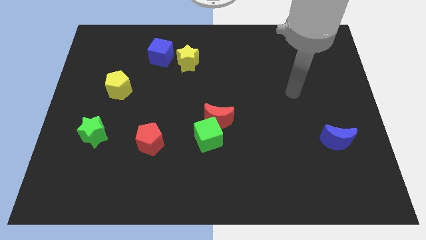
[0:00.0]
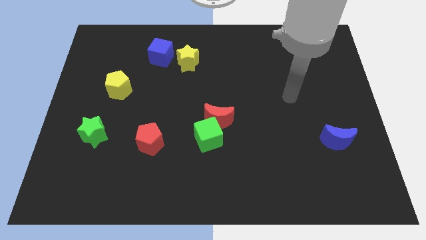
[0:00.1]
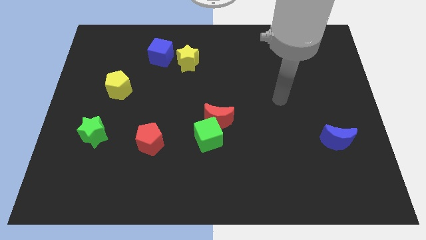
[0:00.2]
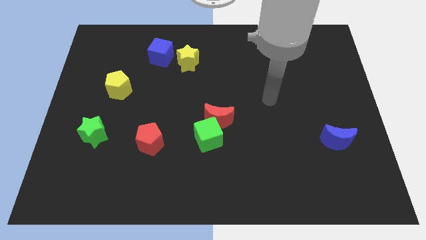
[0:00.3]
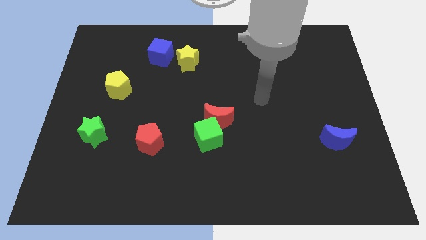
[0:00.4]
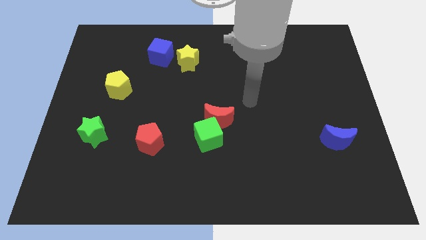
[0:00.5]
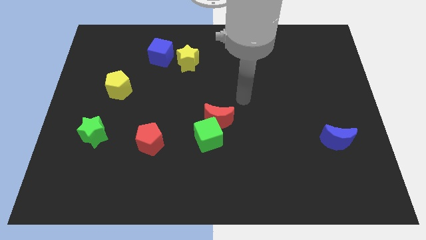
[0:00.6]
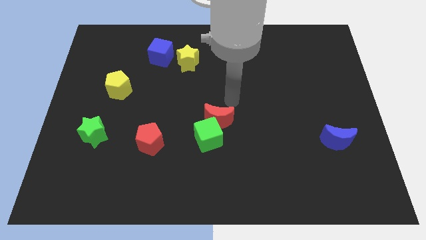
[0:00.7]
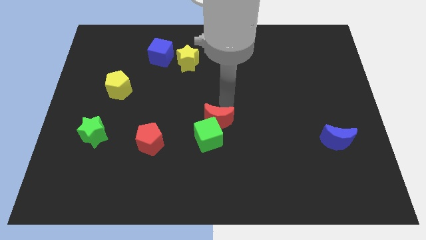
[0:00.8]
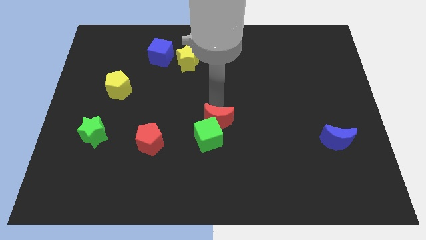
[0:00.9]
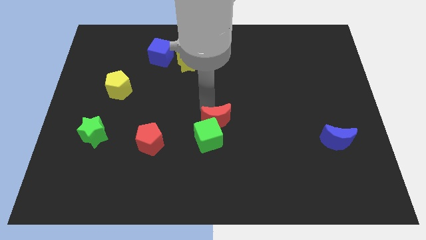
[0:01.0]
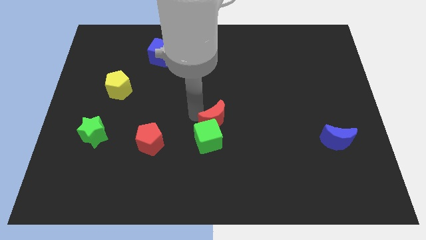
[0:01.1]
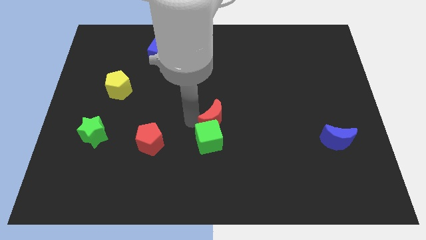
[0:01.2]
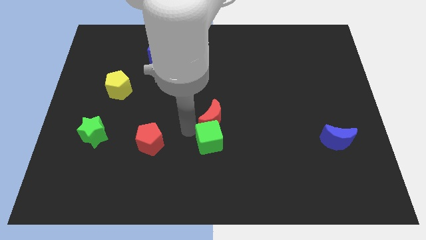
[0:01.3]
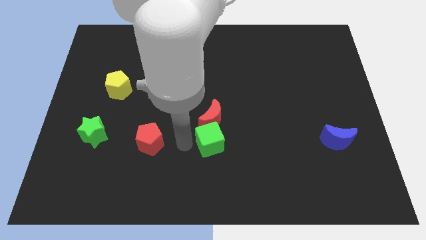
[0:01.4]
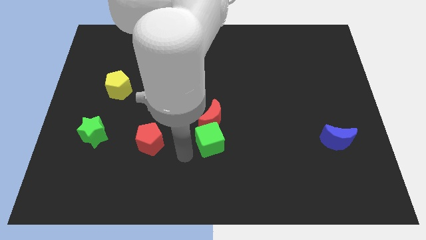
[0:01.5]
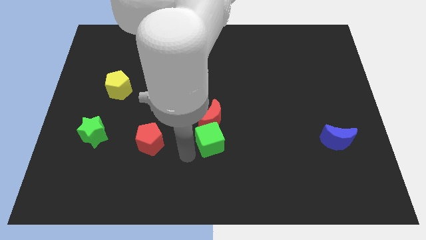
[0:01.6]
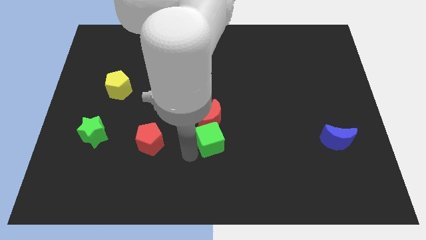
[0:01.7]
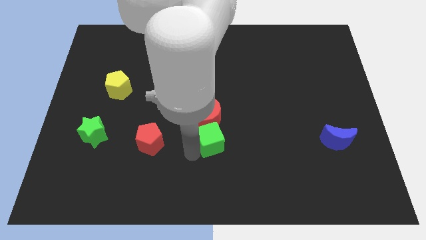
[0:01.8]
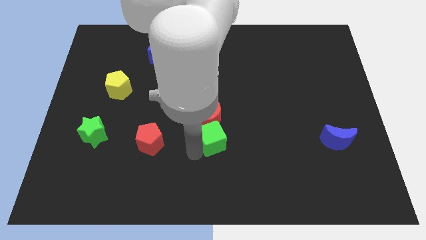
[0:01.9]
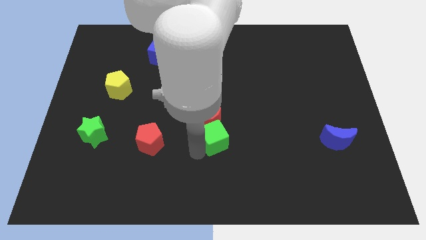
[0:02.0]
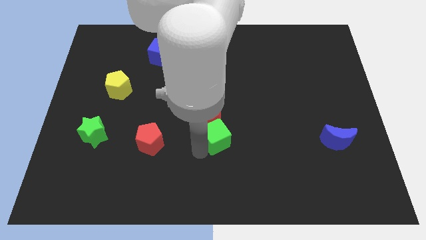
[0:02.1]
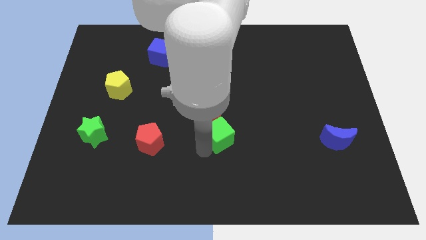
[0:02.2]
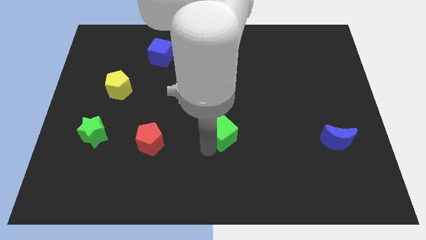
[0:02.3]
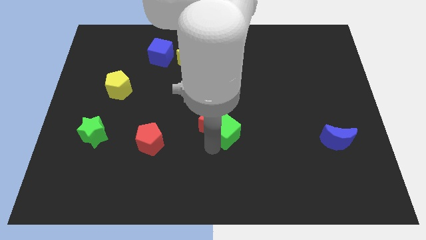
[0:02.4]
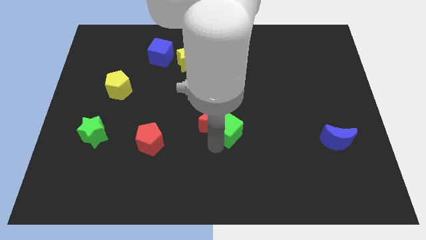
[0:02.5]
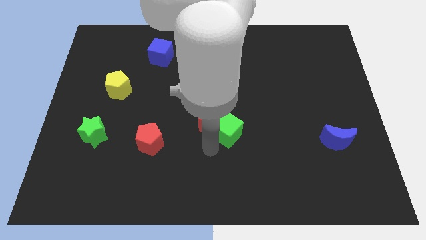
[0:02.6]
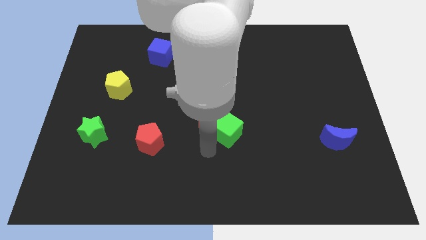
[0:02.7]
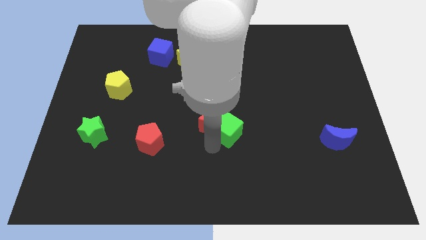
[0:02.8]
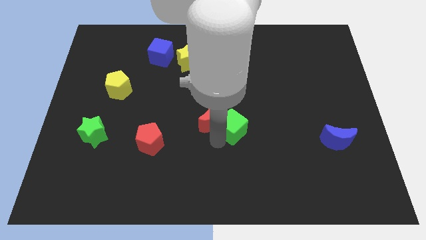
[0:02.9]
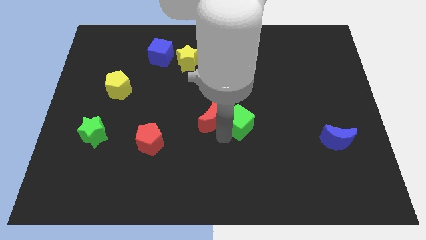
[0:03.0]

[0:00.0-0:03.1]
slide the green cube upwards and then to the right slightly

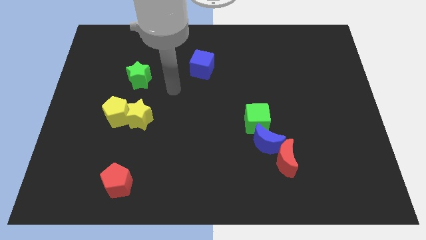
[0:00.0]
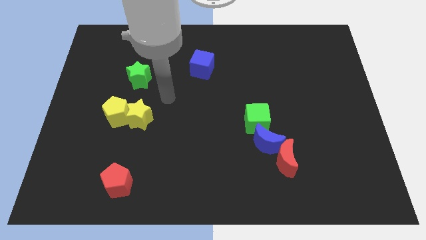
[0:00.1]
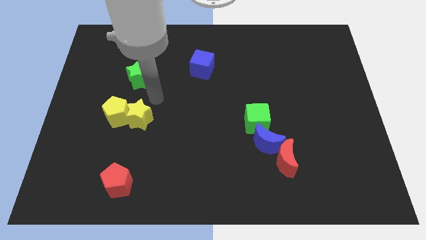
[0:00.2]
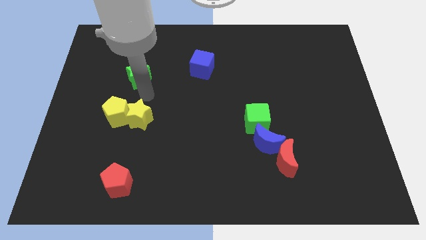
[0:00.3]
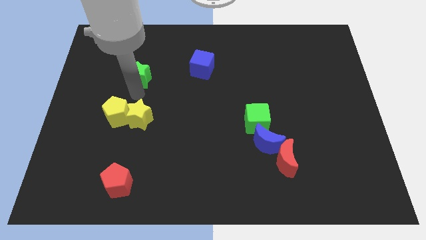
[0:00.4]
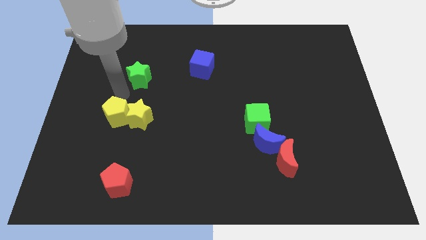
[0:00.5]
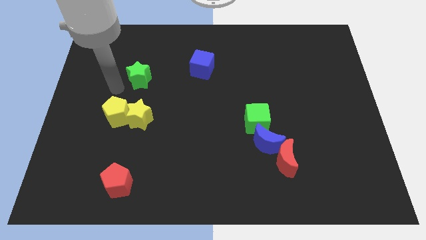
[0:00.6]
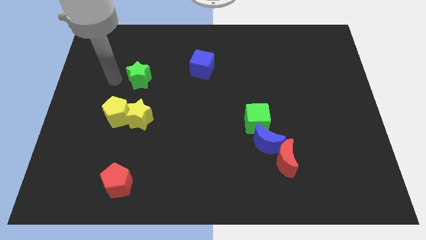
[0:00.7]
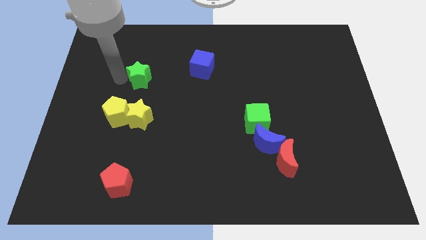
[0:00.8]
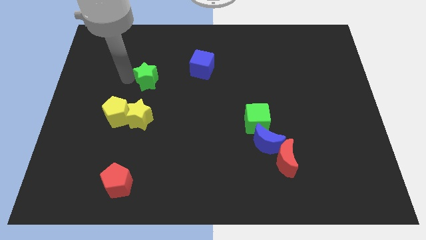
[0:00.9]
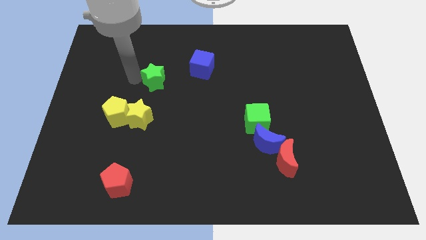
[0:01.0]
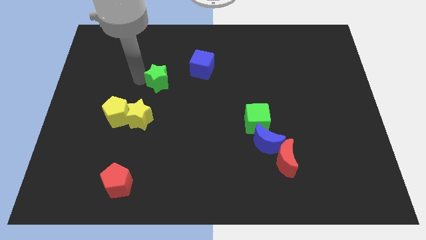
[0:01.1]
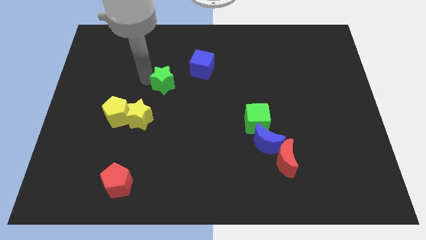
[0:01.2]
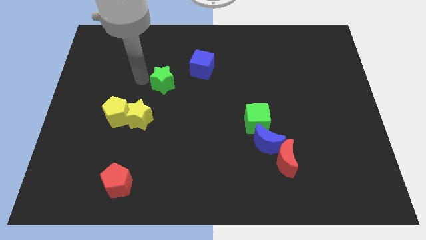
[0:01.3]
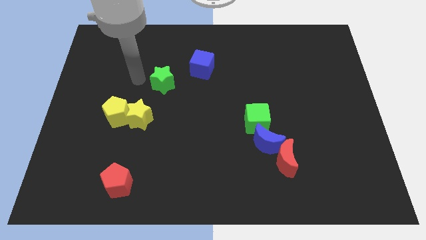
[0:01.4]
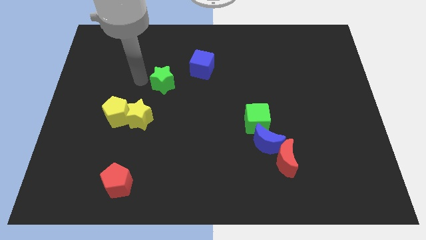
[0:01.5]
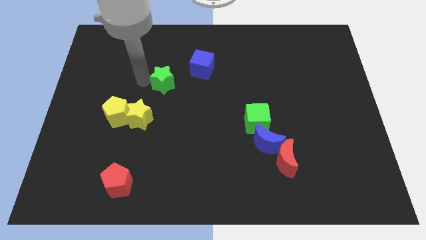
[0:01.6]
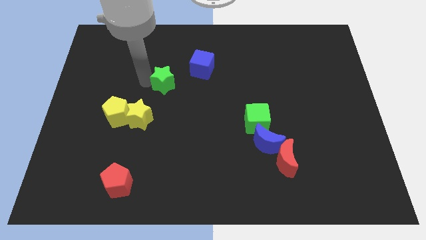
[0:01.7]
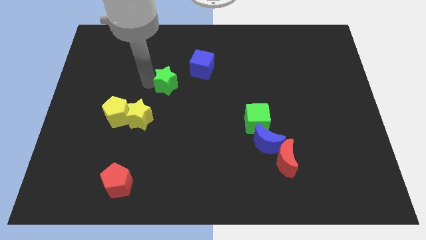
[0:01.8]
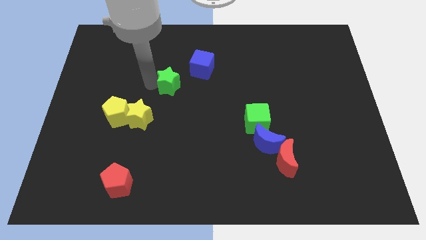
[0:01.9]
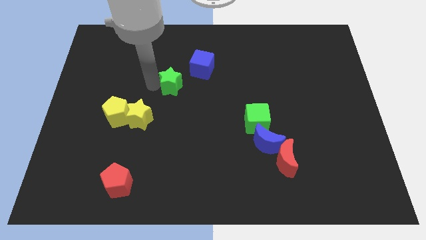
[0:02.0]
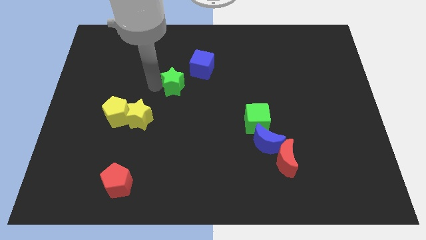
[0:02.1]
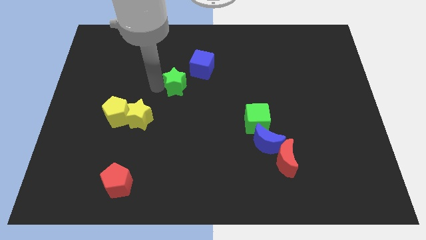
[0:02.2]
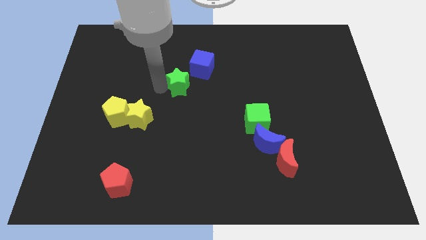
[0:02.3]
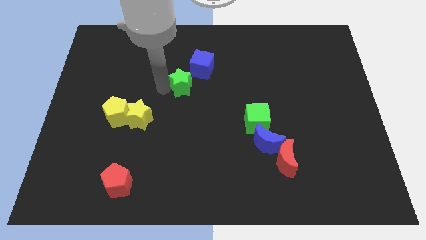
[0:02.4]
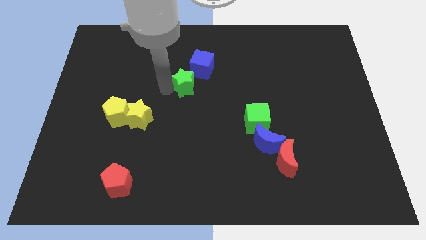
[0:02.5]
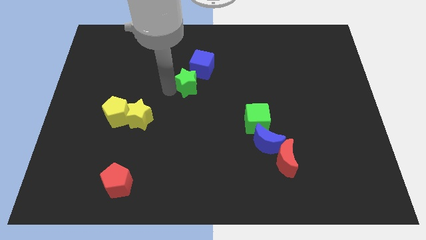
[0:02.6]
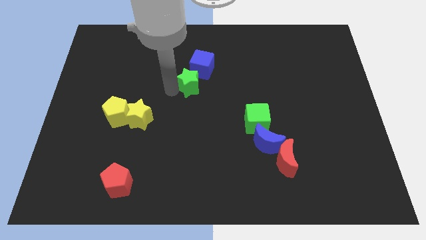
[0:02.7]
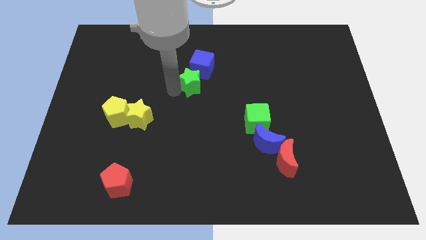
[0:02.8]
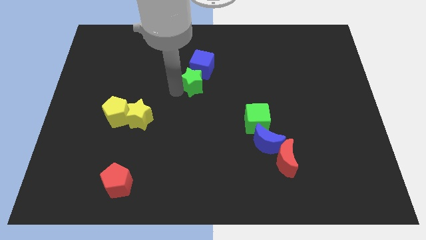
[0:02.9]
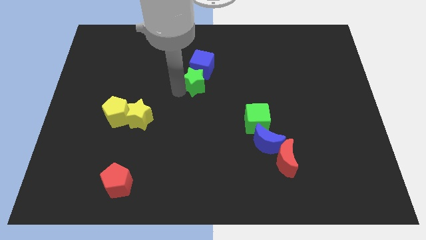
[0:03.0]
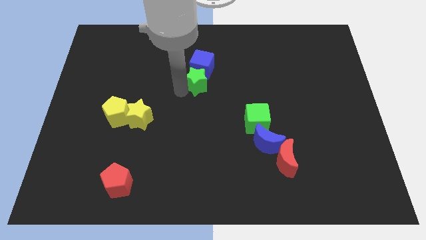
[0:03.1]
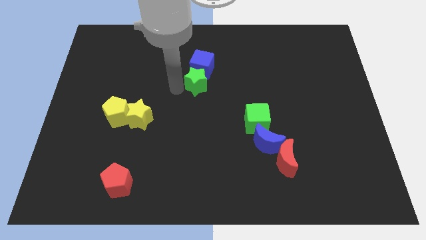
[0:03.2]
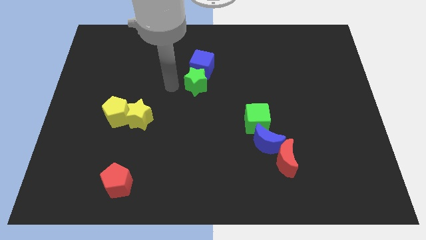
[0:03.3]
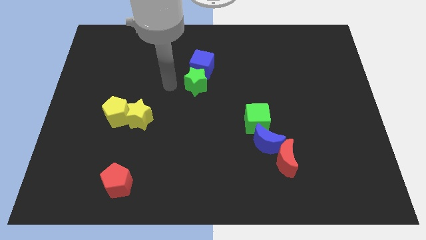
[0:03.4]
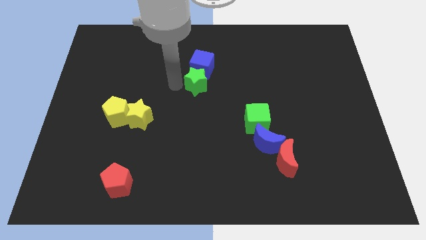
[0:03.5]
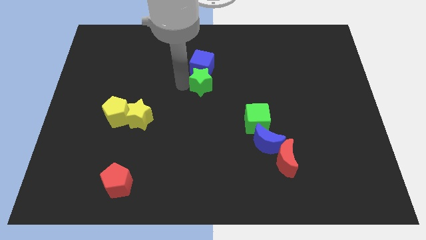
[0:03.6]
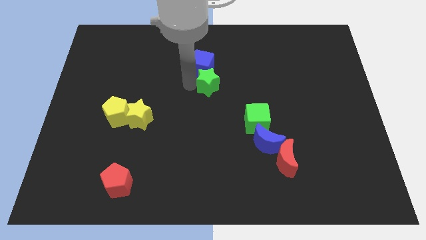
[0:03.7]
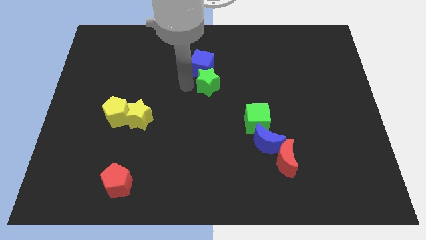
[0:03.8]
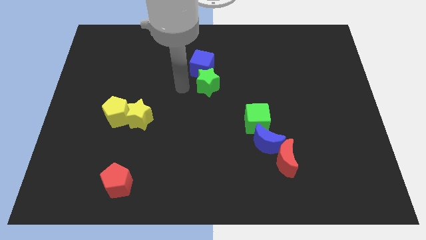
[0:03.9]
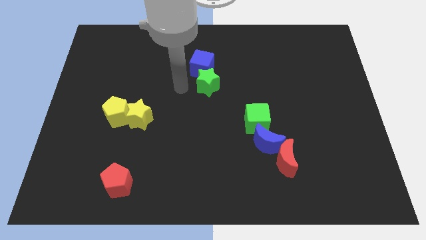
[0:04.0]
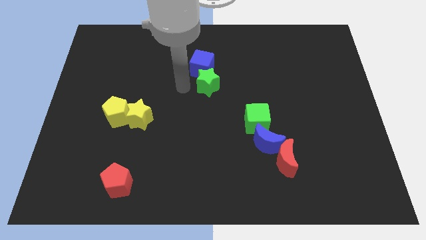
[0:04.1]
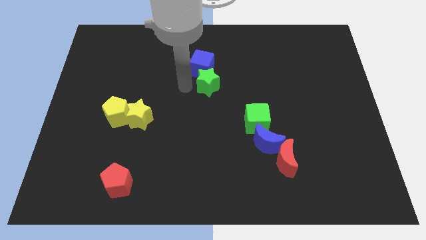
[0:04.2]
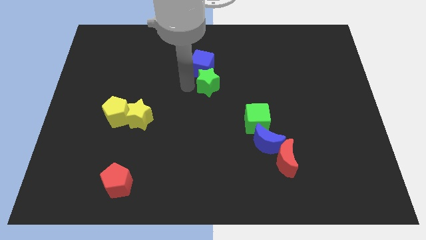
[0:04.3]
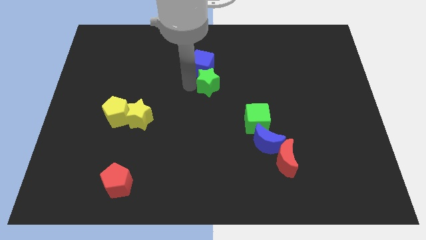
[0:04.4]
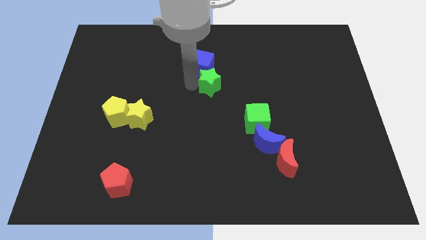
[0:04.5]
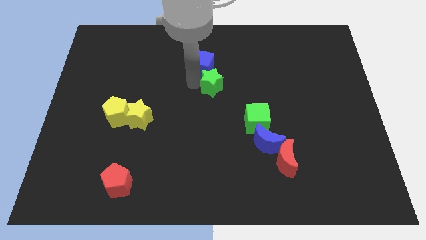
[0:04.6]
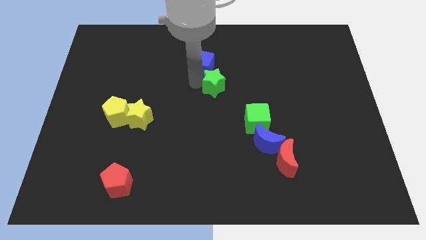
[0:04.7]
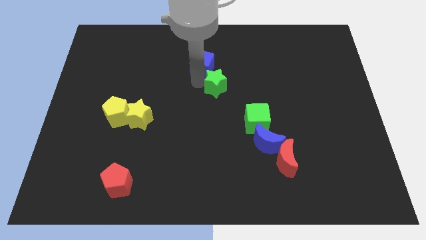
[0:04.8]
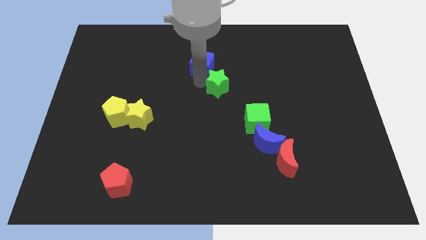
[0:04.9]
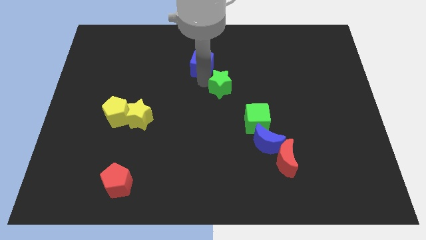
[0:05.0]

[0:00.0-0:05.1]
move the green star to the right
